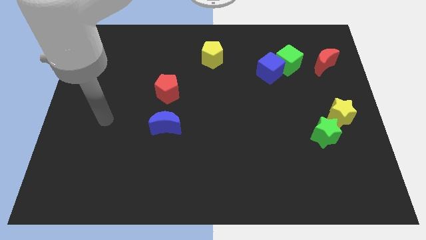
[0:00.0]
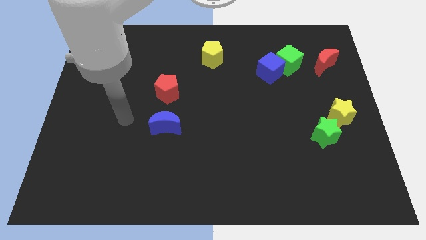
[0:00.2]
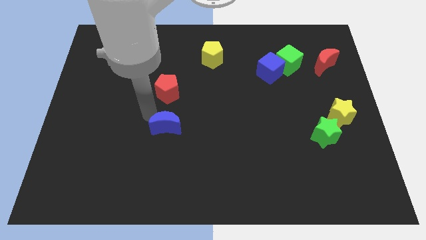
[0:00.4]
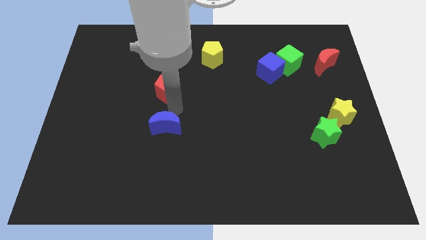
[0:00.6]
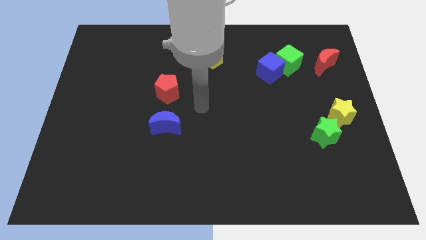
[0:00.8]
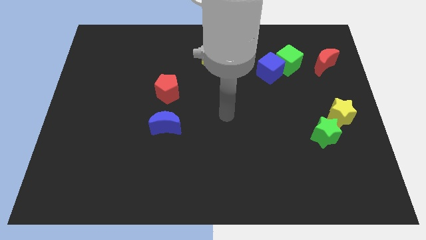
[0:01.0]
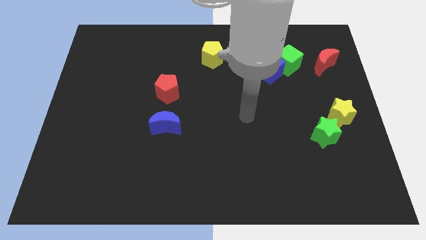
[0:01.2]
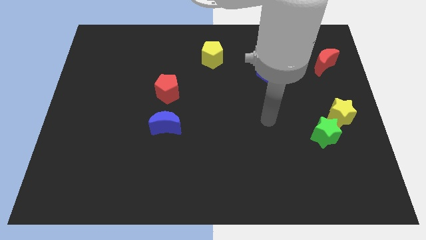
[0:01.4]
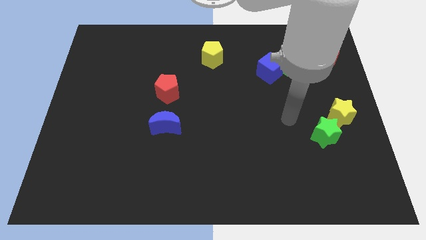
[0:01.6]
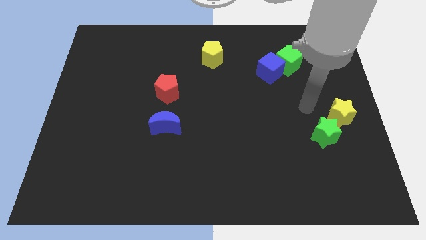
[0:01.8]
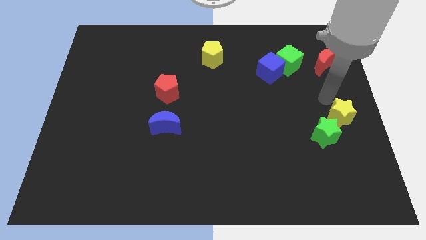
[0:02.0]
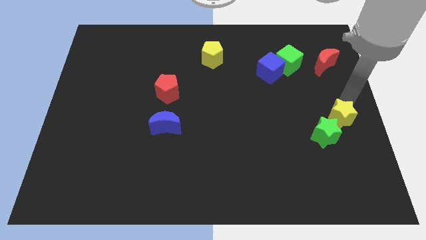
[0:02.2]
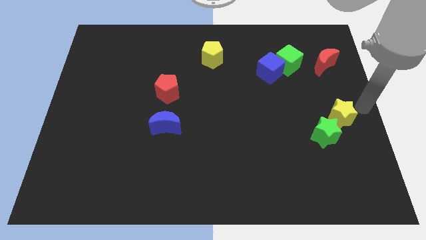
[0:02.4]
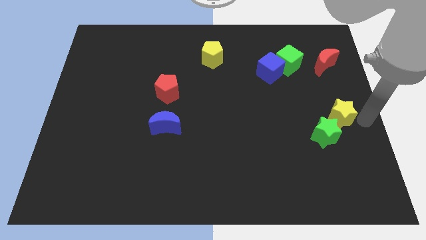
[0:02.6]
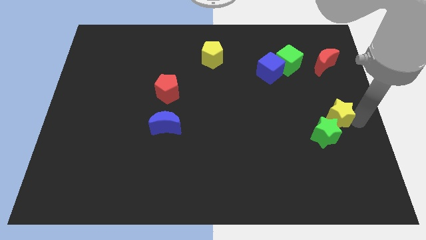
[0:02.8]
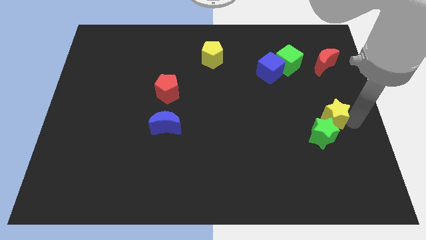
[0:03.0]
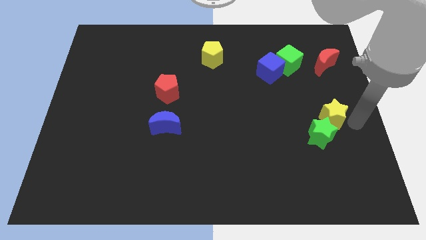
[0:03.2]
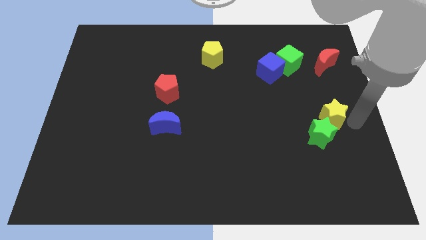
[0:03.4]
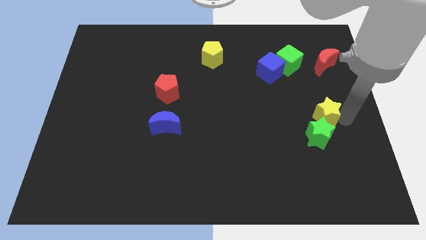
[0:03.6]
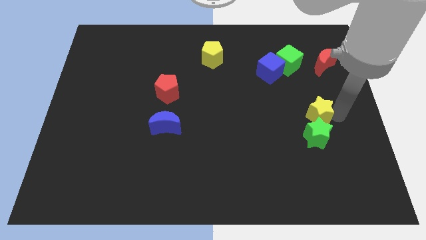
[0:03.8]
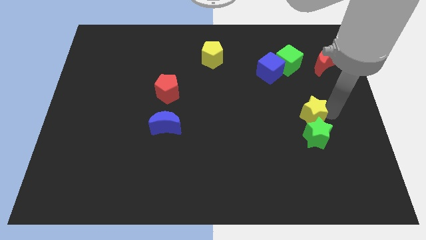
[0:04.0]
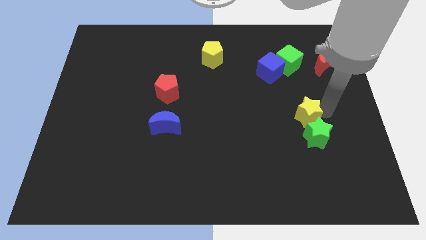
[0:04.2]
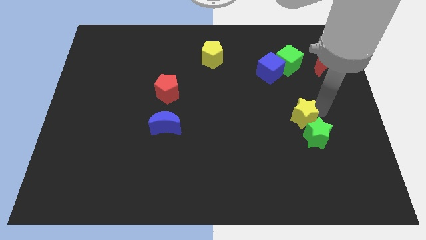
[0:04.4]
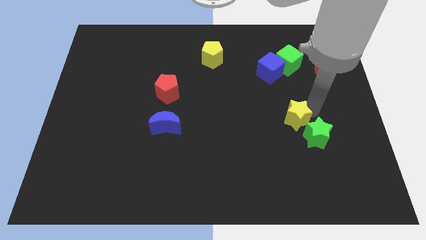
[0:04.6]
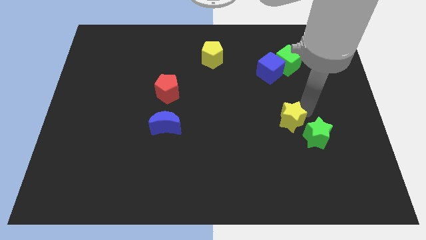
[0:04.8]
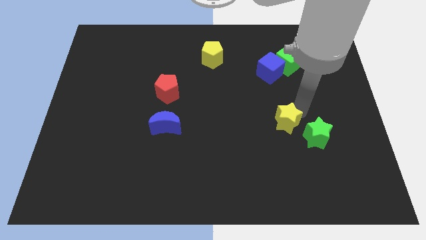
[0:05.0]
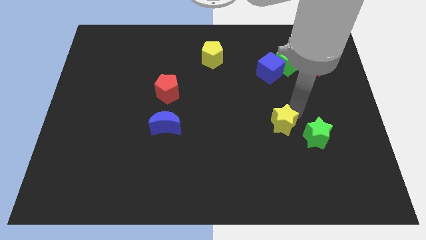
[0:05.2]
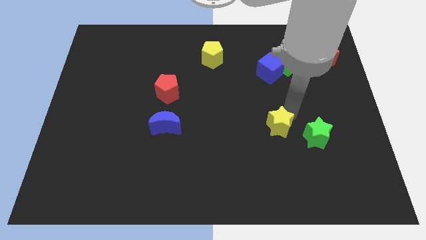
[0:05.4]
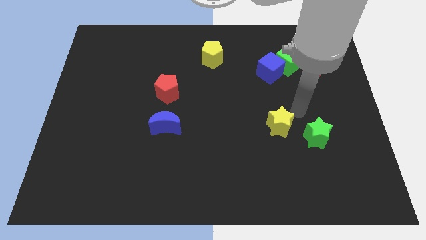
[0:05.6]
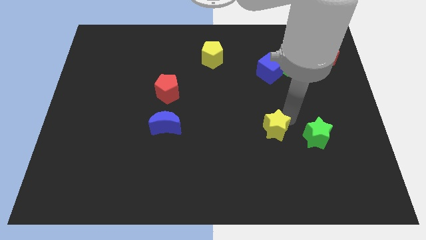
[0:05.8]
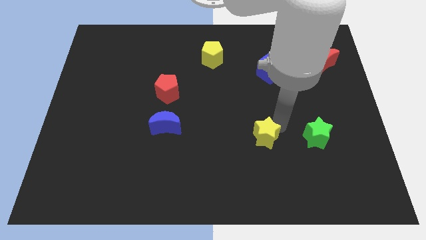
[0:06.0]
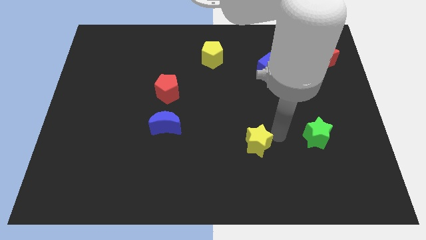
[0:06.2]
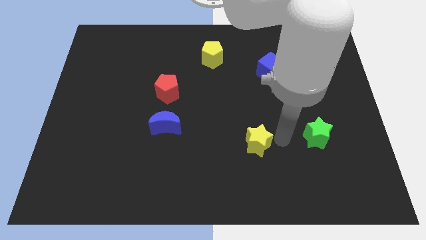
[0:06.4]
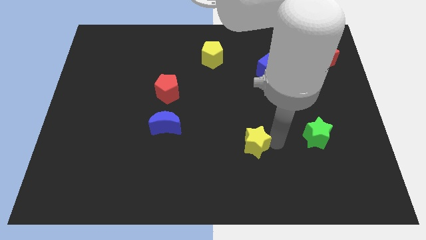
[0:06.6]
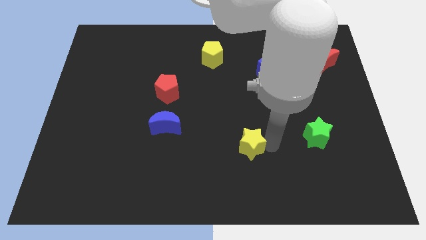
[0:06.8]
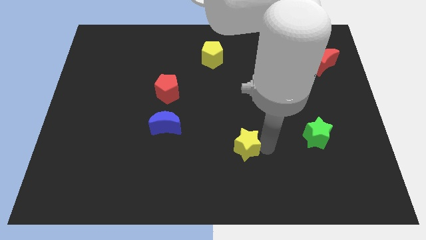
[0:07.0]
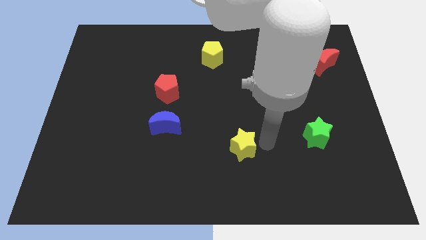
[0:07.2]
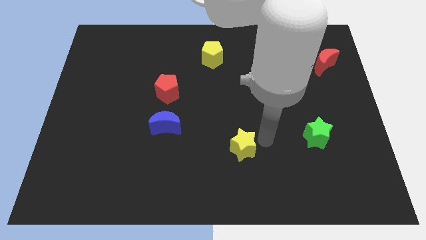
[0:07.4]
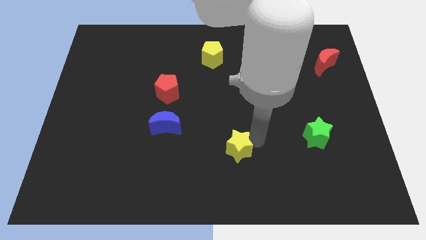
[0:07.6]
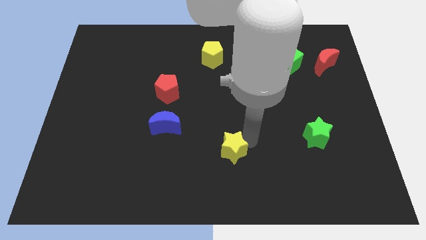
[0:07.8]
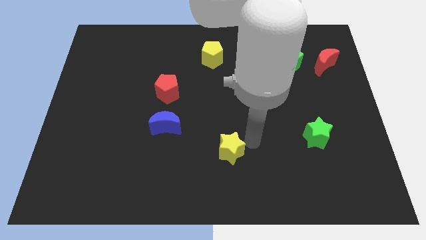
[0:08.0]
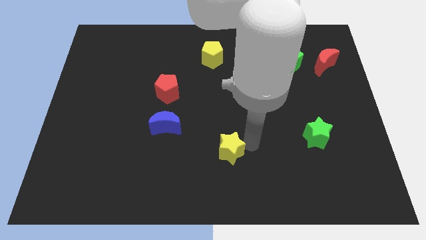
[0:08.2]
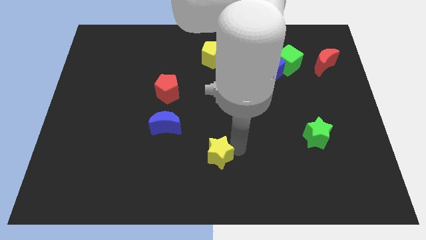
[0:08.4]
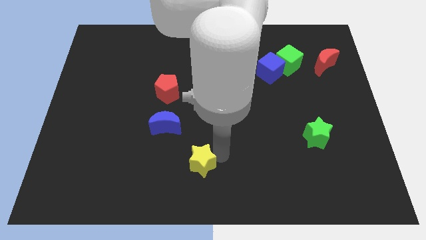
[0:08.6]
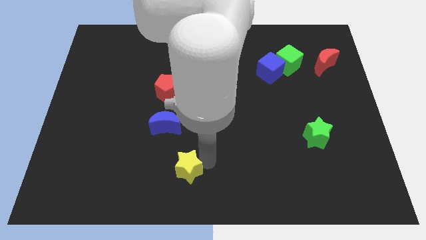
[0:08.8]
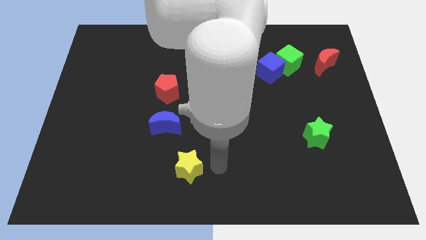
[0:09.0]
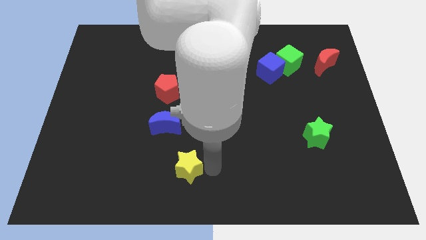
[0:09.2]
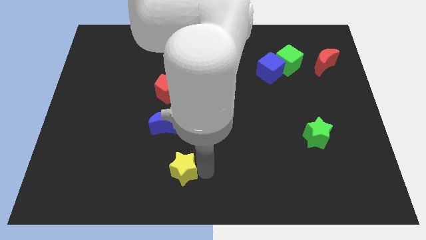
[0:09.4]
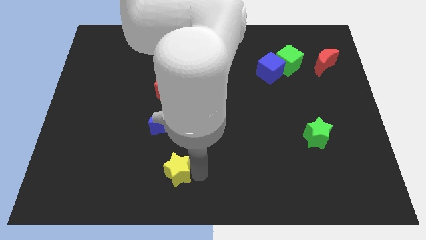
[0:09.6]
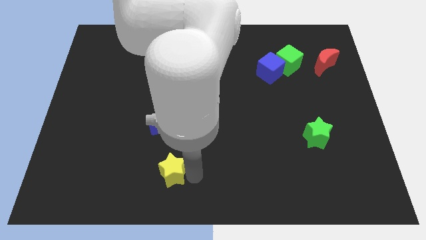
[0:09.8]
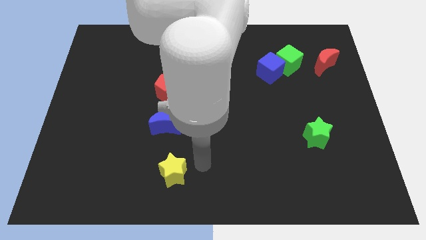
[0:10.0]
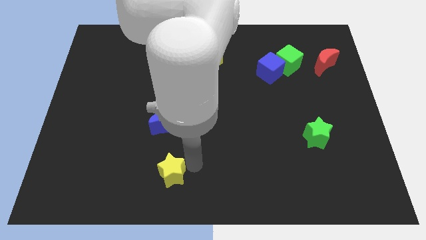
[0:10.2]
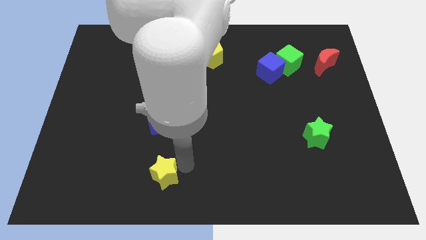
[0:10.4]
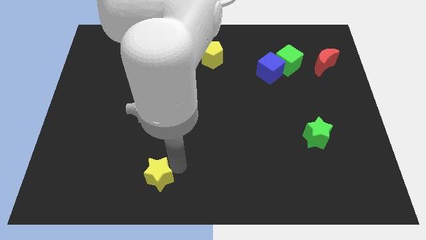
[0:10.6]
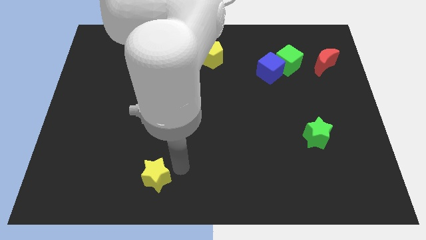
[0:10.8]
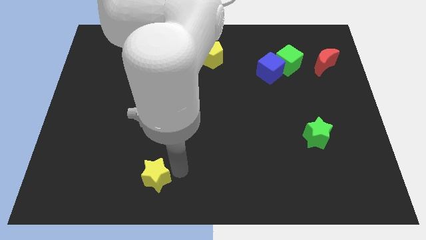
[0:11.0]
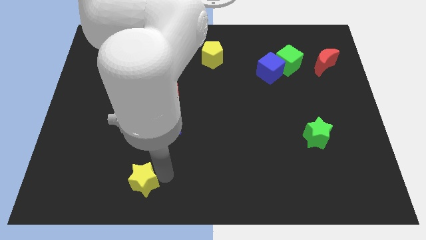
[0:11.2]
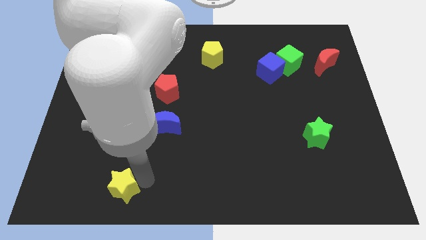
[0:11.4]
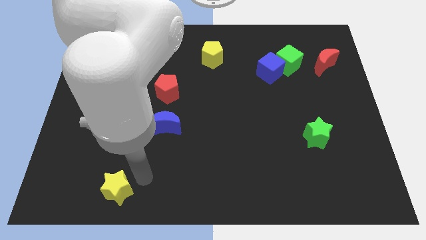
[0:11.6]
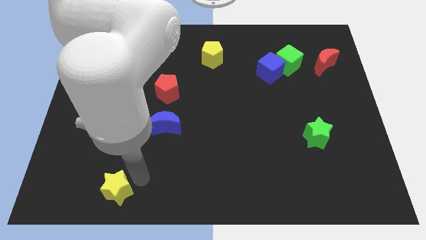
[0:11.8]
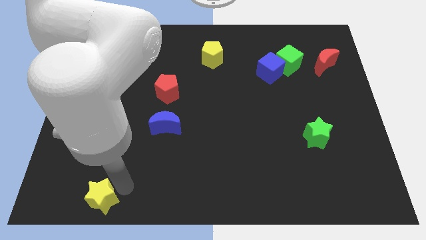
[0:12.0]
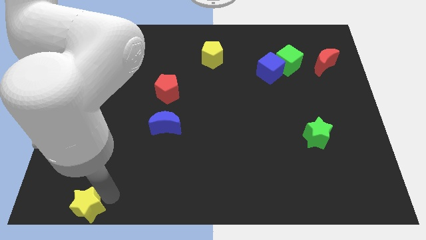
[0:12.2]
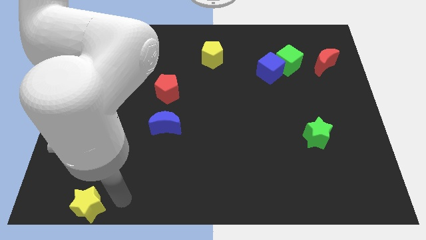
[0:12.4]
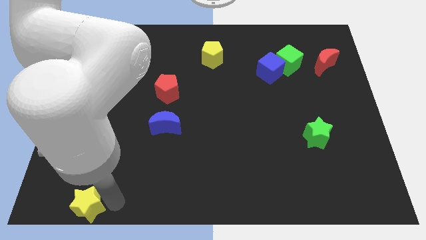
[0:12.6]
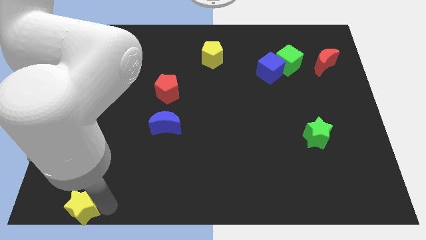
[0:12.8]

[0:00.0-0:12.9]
put the yellow star to the bottom left of the board

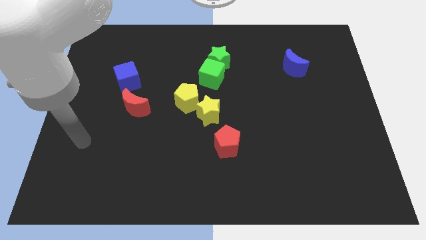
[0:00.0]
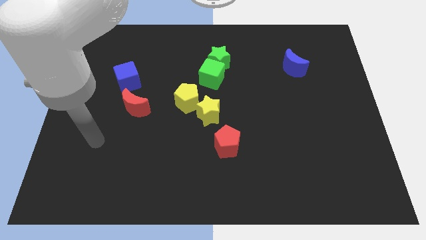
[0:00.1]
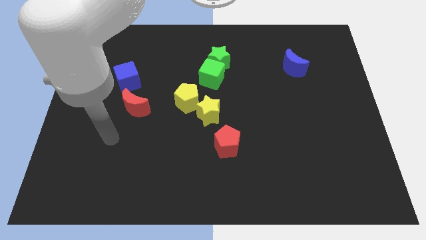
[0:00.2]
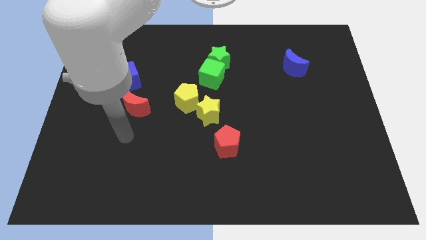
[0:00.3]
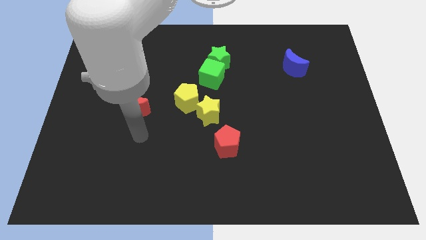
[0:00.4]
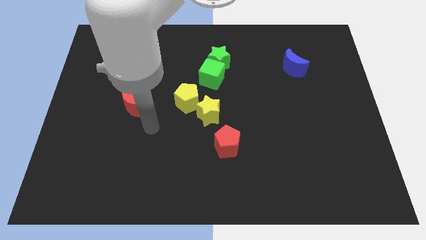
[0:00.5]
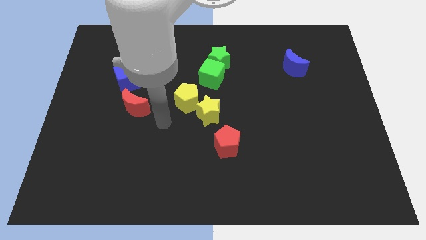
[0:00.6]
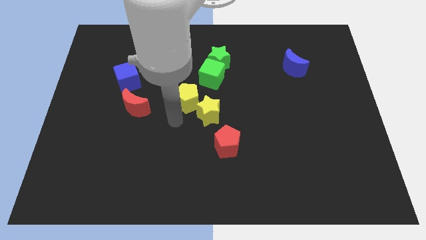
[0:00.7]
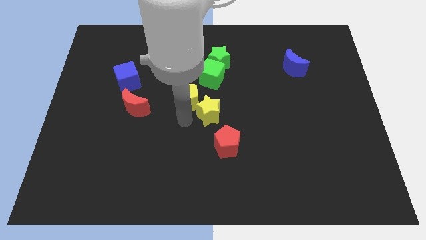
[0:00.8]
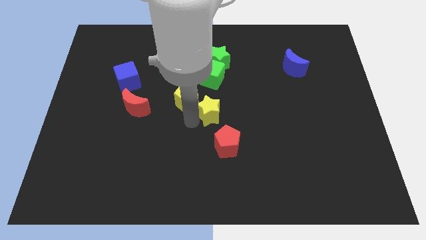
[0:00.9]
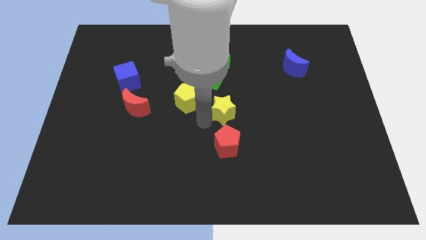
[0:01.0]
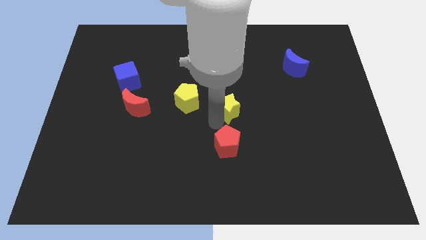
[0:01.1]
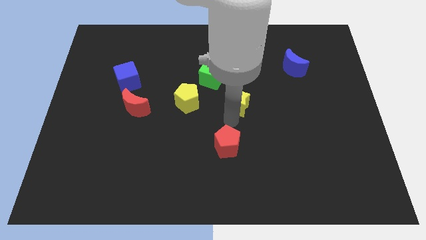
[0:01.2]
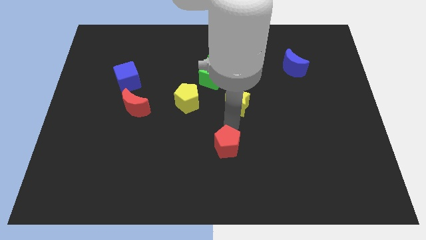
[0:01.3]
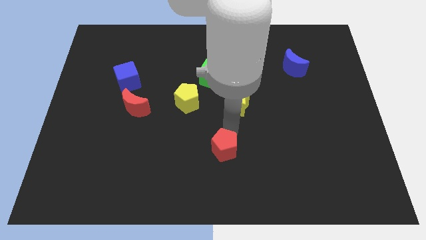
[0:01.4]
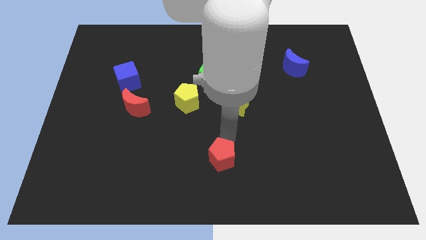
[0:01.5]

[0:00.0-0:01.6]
push the red pentagon to the bottom side
